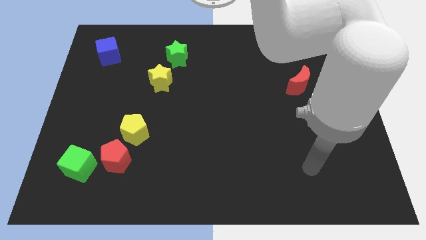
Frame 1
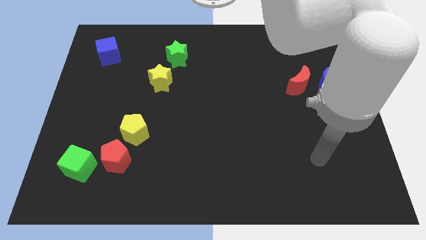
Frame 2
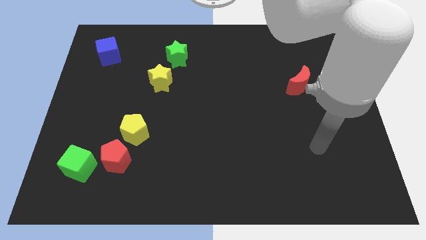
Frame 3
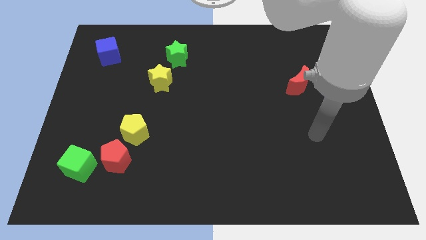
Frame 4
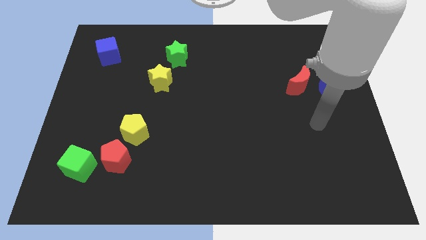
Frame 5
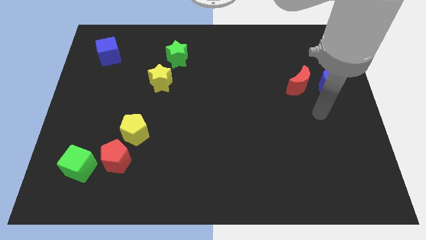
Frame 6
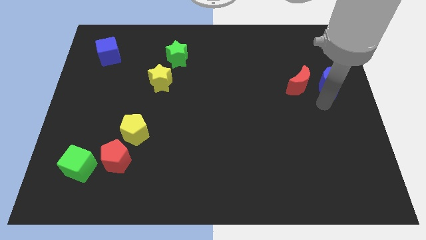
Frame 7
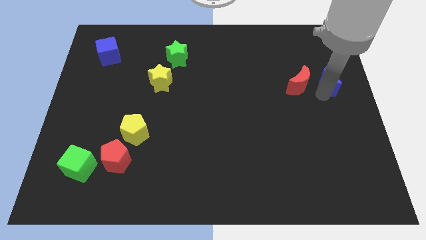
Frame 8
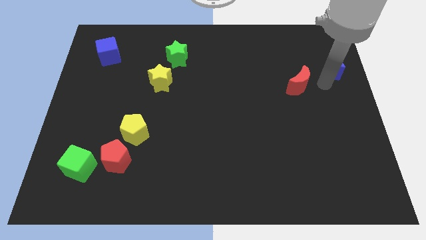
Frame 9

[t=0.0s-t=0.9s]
pull the red moon apart from the blue moon

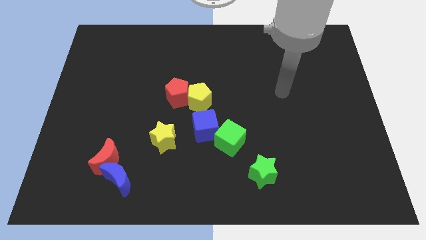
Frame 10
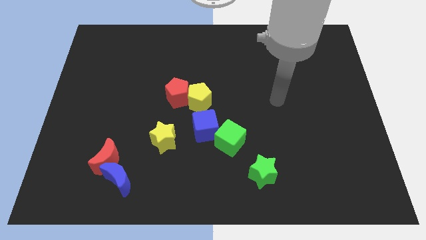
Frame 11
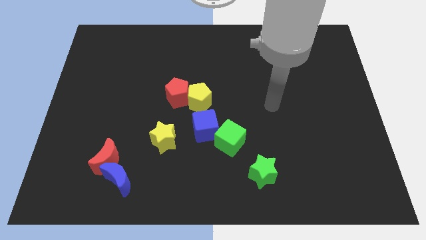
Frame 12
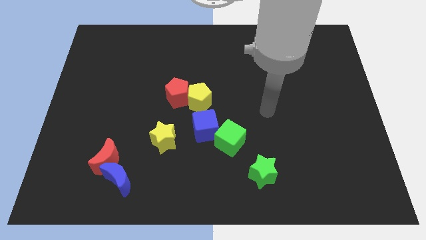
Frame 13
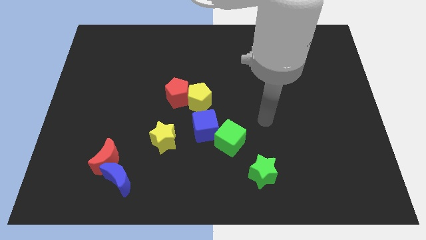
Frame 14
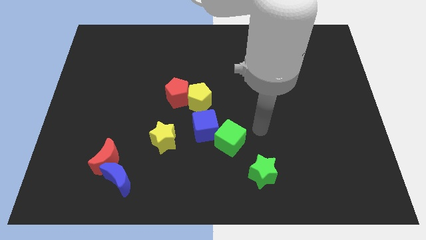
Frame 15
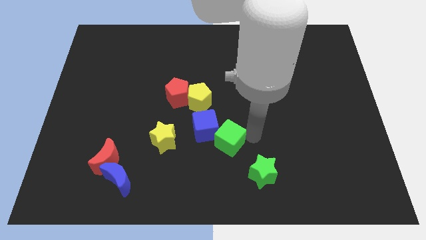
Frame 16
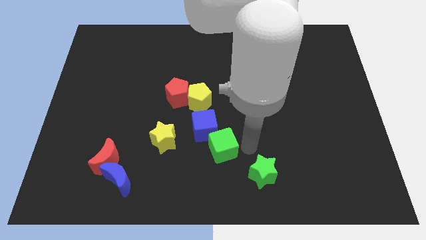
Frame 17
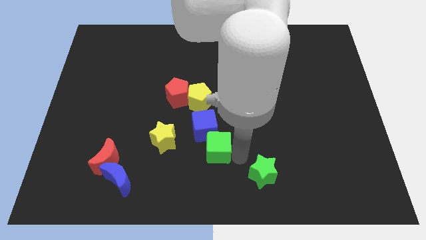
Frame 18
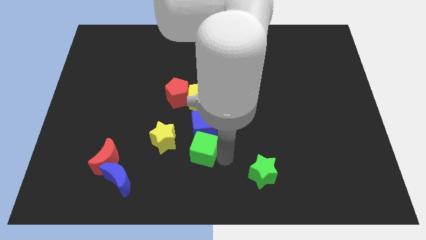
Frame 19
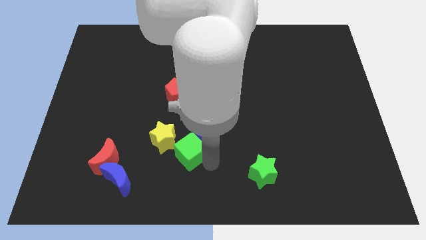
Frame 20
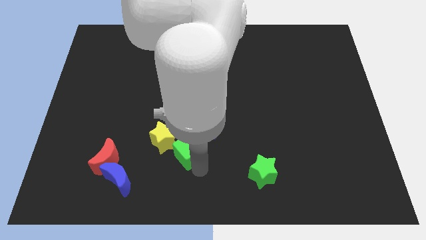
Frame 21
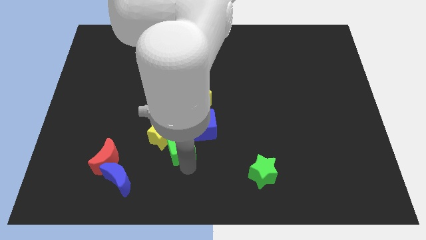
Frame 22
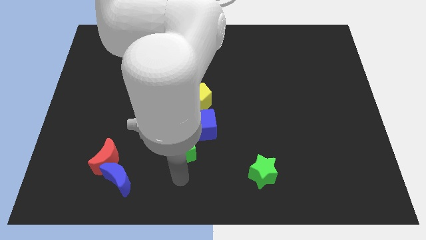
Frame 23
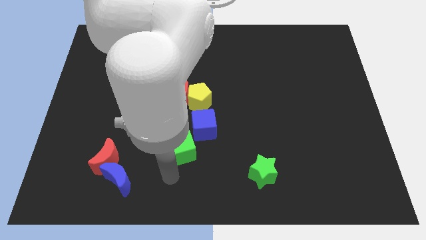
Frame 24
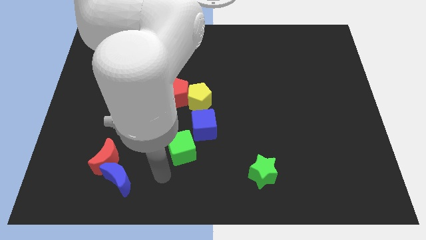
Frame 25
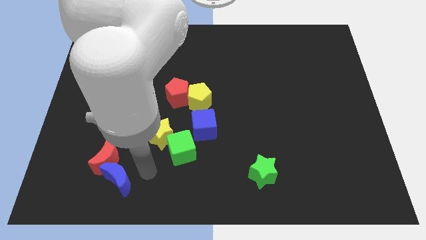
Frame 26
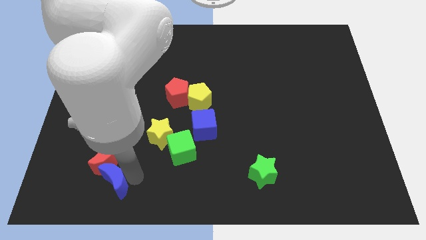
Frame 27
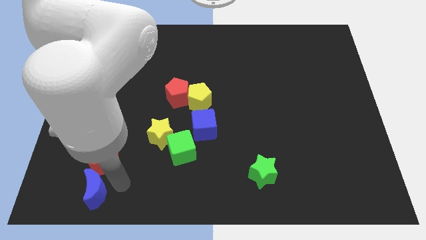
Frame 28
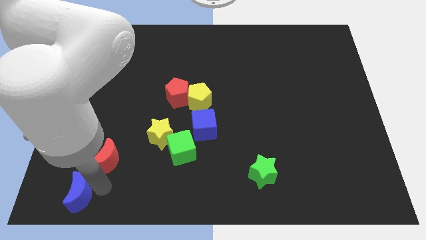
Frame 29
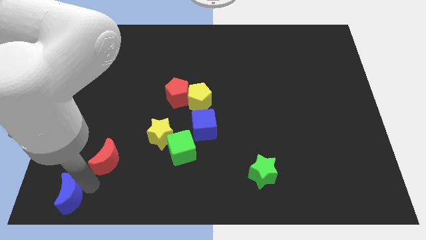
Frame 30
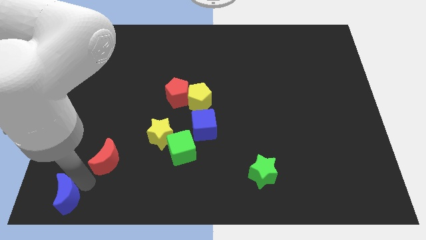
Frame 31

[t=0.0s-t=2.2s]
move the red moon away from the blue moon

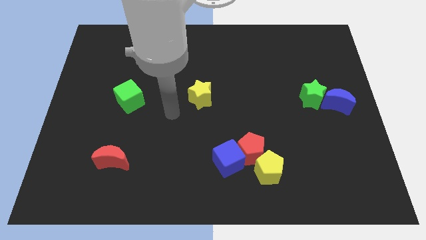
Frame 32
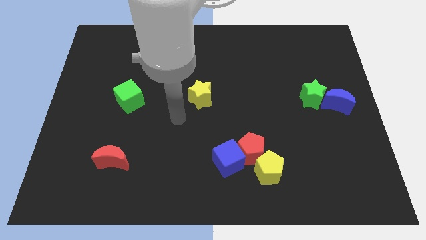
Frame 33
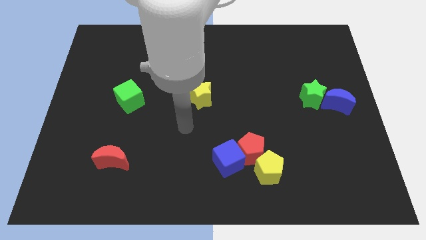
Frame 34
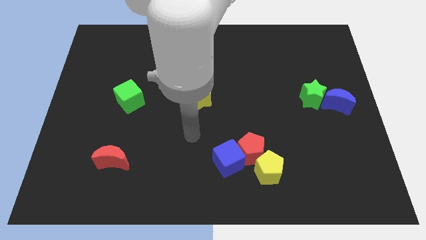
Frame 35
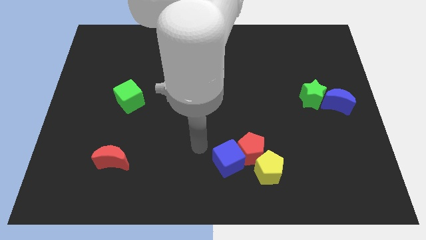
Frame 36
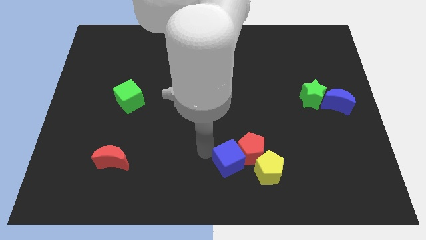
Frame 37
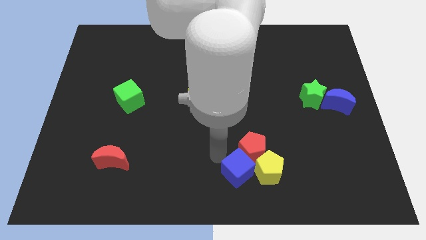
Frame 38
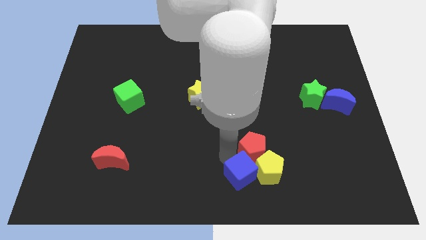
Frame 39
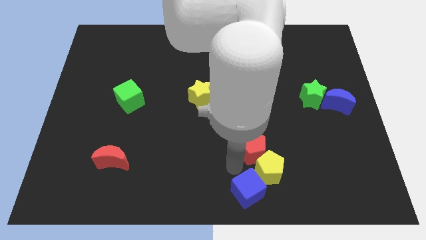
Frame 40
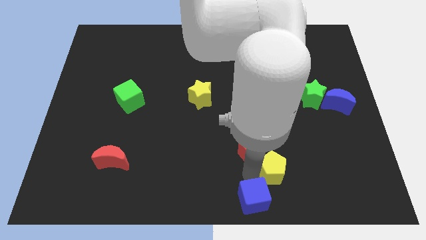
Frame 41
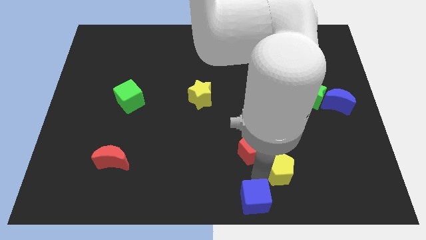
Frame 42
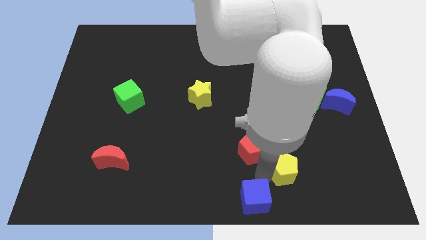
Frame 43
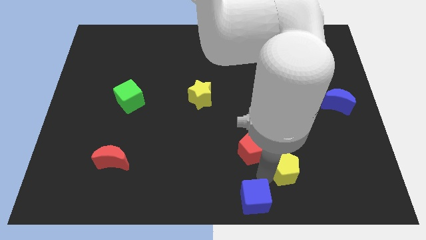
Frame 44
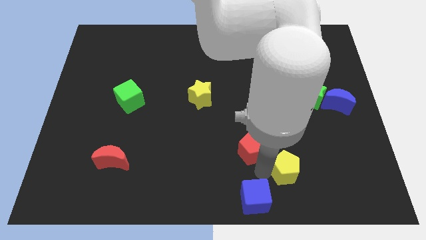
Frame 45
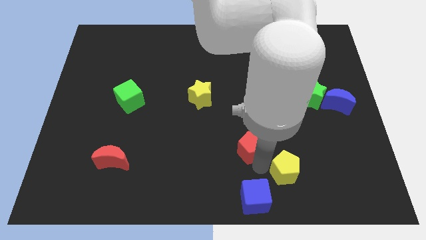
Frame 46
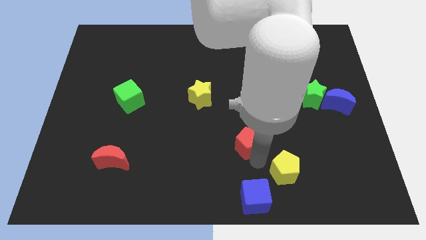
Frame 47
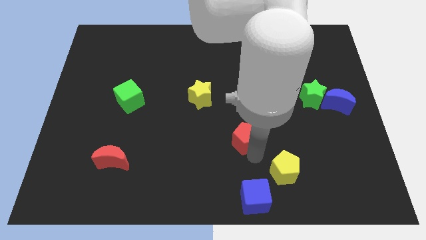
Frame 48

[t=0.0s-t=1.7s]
separate the red pentagon from the blue cube and yellow pentagon

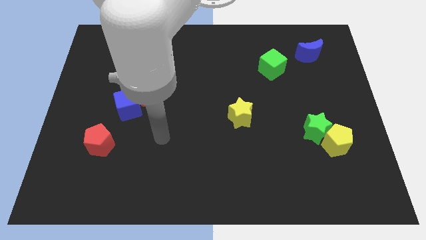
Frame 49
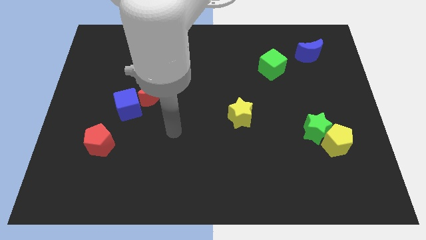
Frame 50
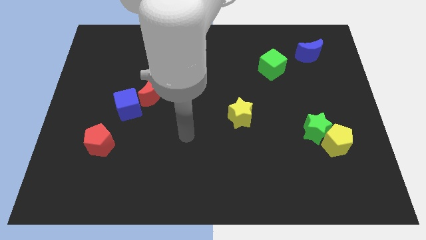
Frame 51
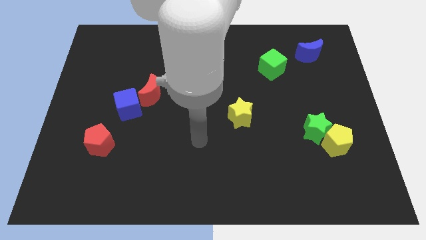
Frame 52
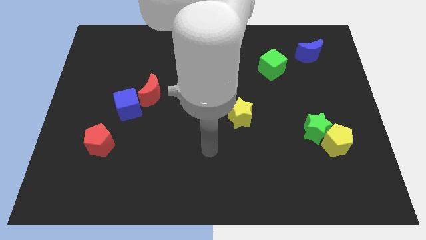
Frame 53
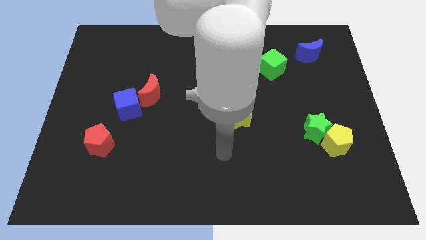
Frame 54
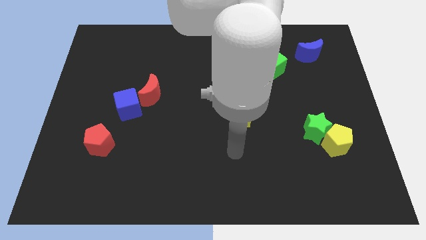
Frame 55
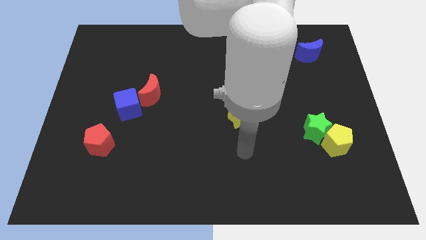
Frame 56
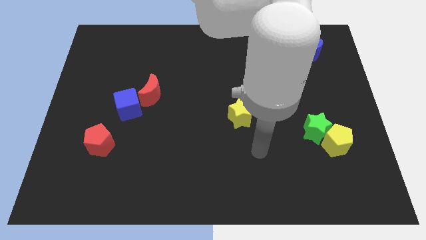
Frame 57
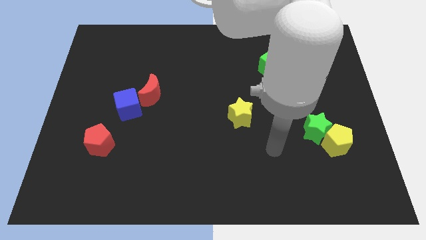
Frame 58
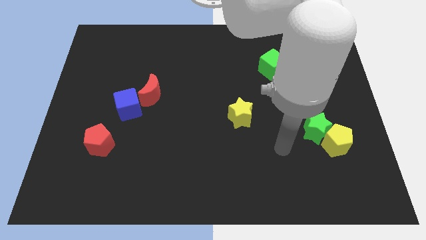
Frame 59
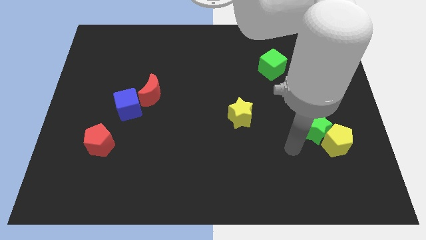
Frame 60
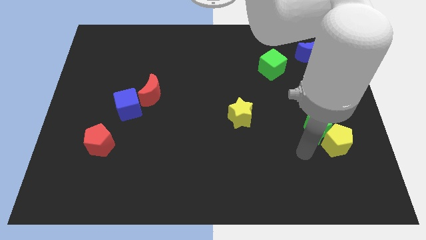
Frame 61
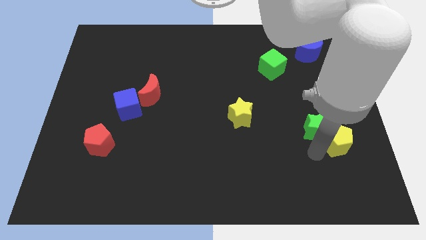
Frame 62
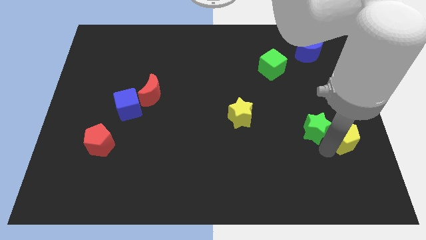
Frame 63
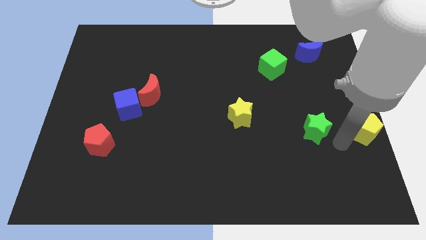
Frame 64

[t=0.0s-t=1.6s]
pull the green star apart from the yellow pentagon

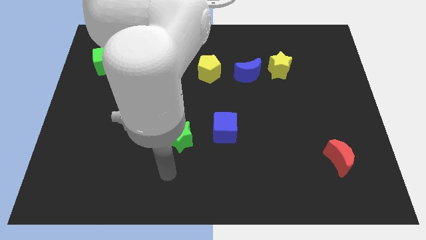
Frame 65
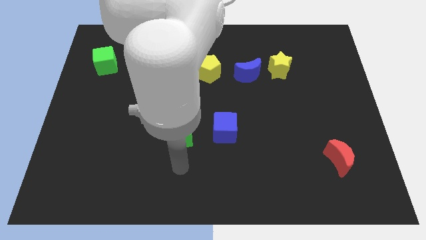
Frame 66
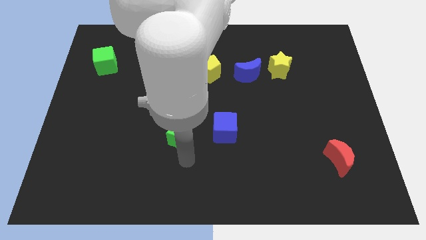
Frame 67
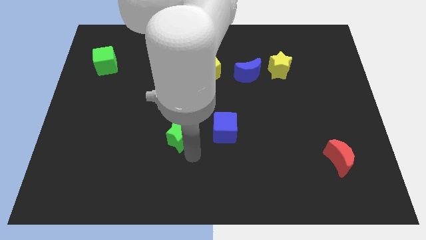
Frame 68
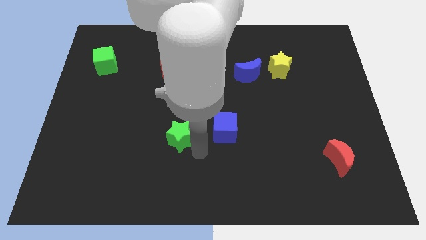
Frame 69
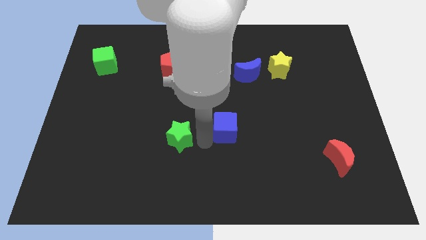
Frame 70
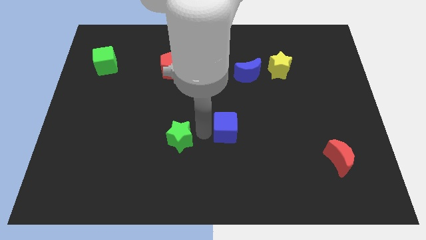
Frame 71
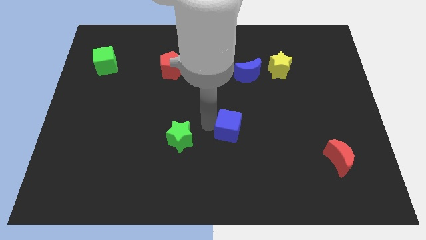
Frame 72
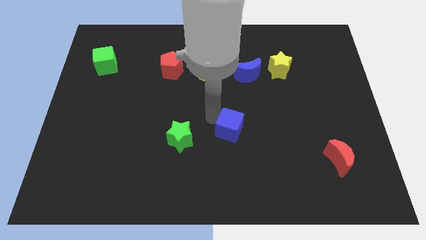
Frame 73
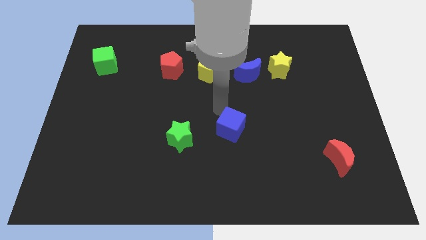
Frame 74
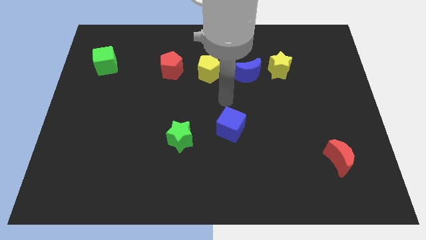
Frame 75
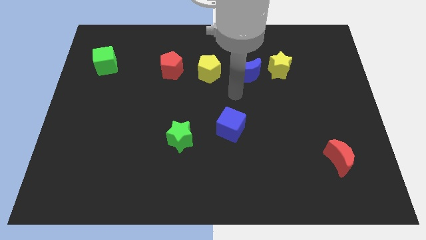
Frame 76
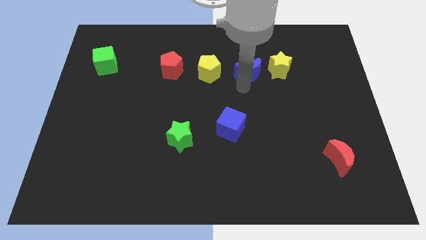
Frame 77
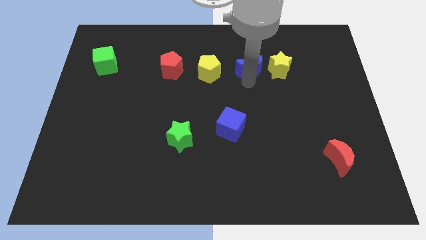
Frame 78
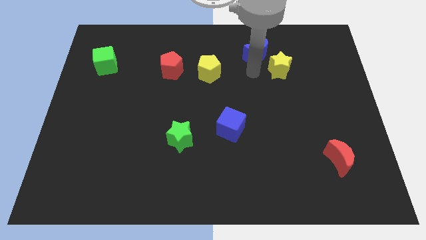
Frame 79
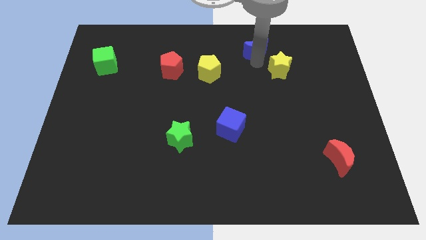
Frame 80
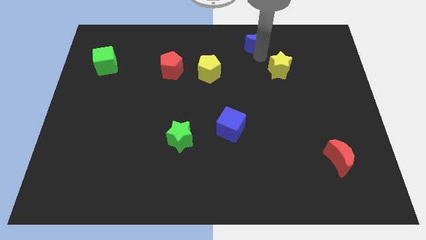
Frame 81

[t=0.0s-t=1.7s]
move the yellow star away from the blue moon

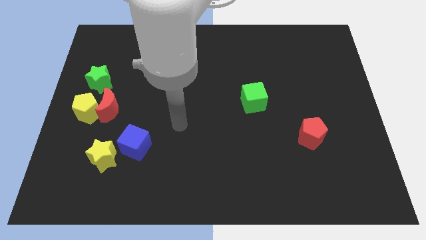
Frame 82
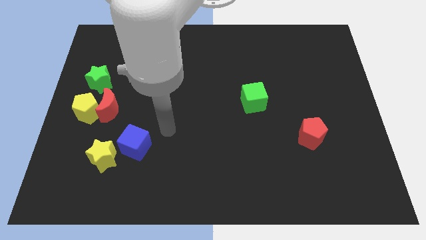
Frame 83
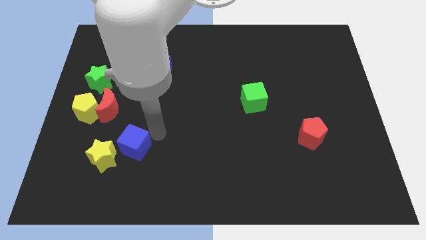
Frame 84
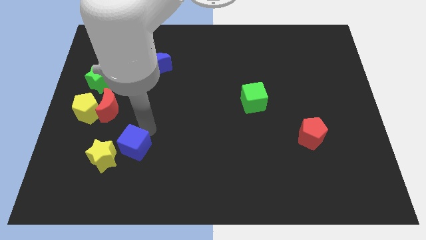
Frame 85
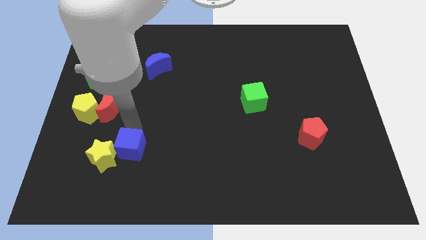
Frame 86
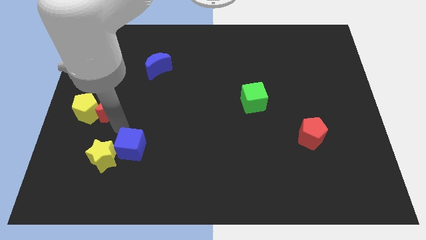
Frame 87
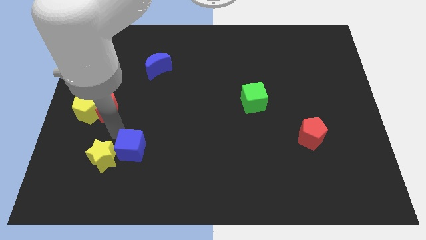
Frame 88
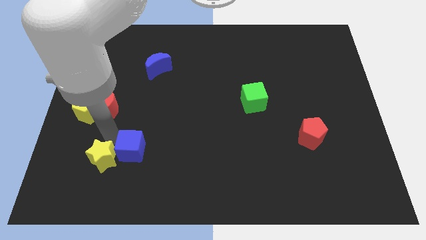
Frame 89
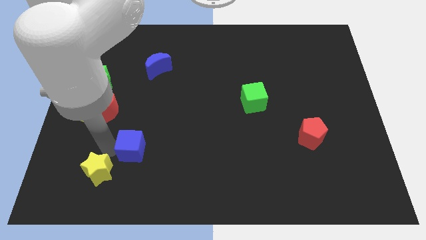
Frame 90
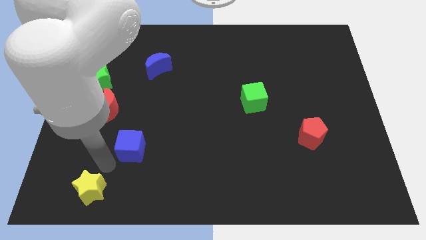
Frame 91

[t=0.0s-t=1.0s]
pull the blue cube apart from the yellow star

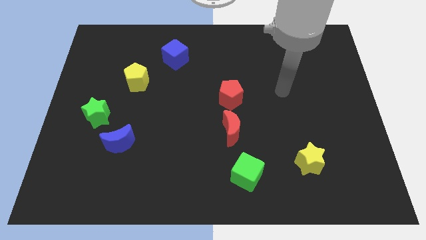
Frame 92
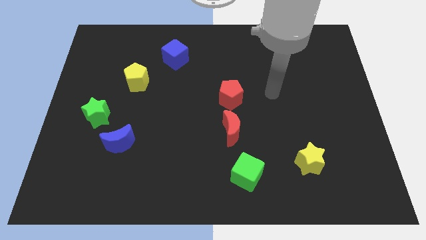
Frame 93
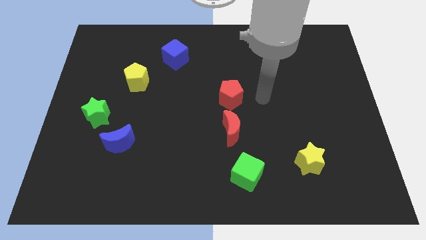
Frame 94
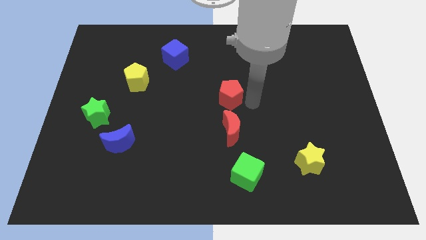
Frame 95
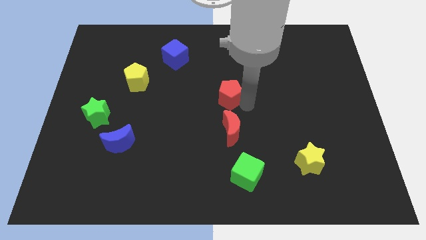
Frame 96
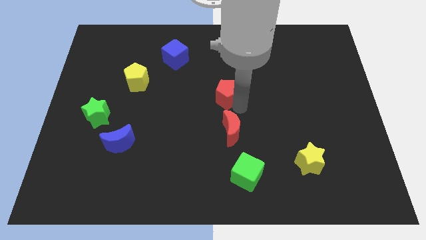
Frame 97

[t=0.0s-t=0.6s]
pull the red moon apart from the red pentagon
